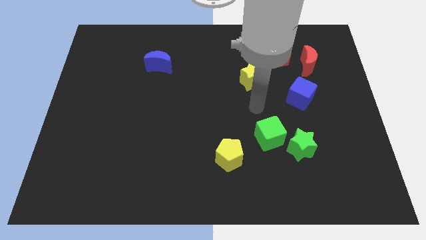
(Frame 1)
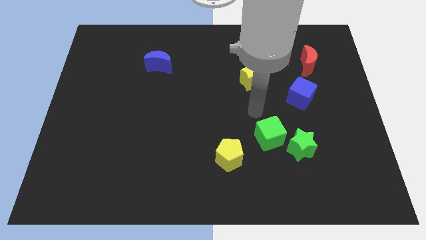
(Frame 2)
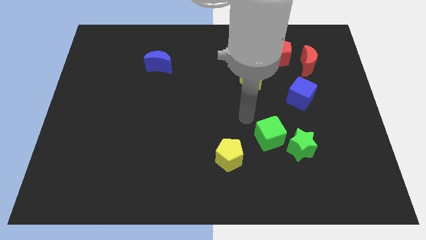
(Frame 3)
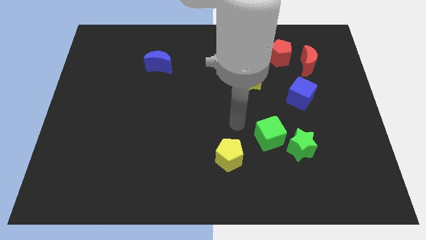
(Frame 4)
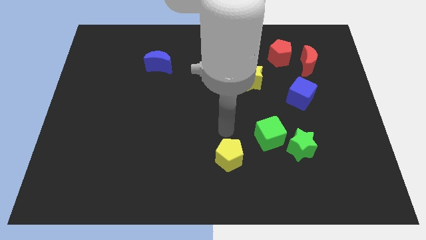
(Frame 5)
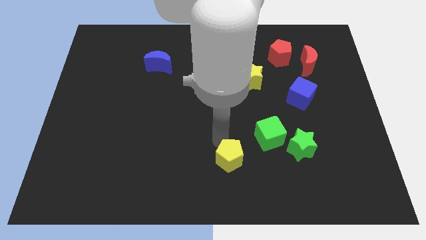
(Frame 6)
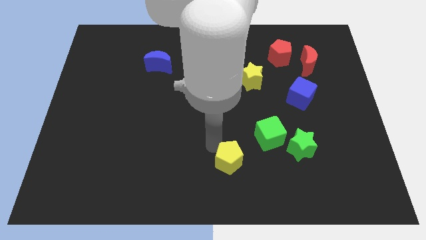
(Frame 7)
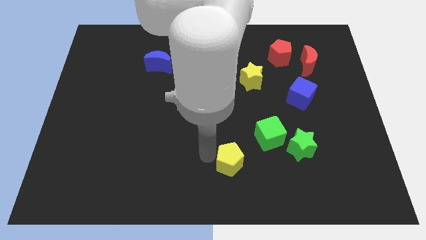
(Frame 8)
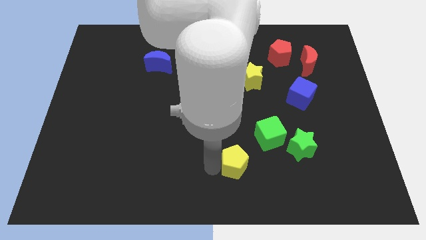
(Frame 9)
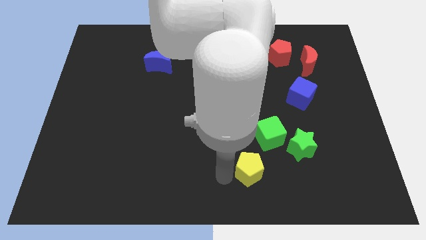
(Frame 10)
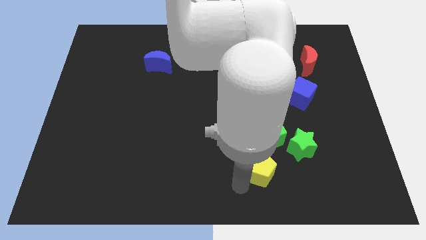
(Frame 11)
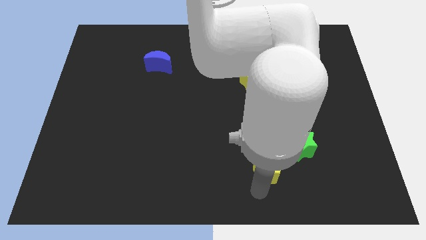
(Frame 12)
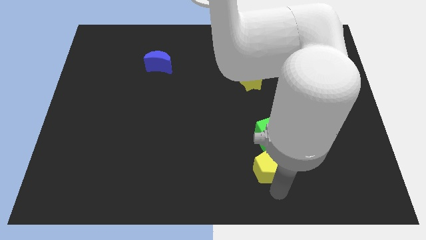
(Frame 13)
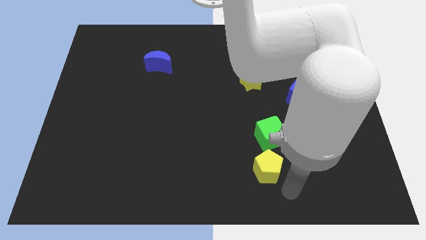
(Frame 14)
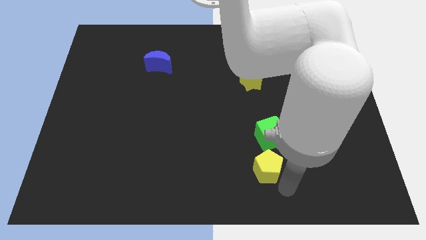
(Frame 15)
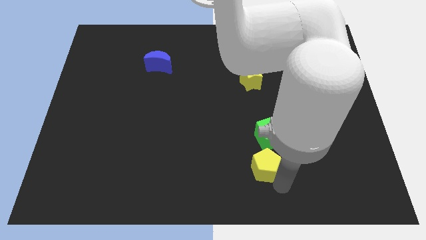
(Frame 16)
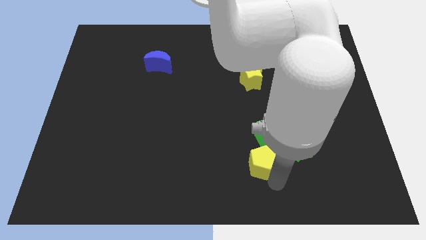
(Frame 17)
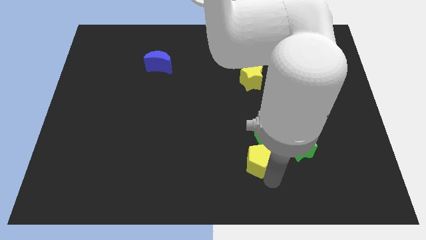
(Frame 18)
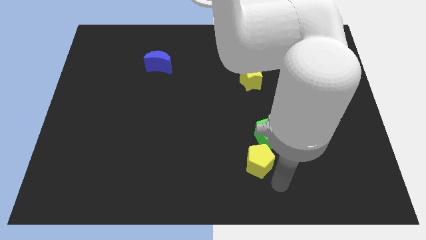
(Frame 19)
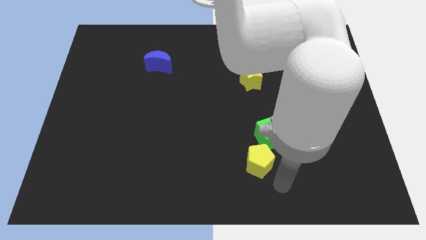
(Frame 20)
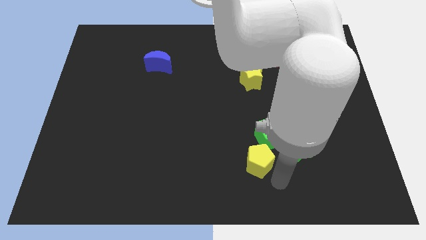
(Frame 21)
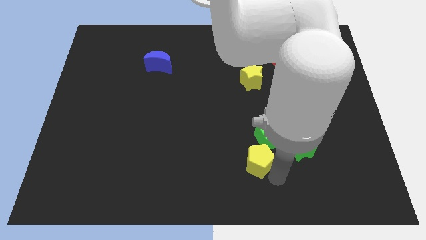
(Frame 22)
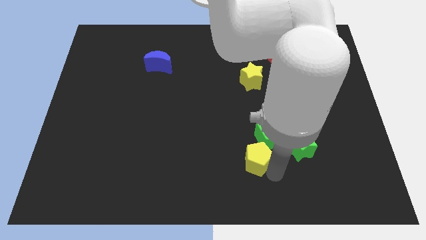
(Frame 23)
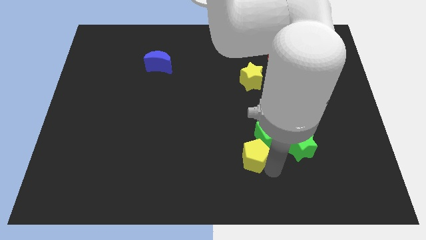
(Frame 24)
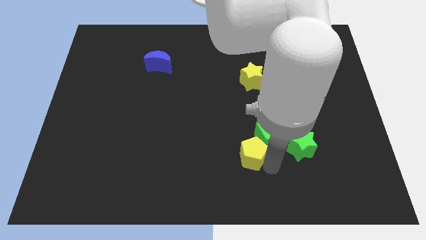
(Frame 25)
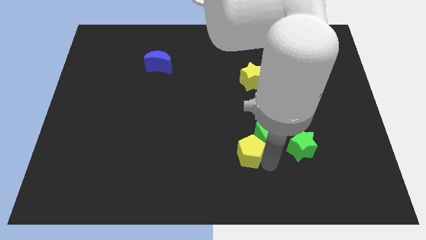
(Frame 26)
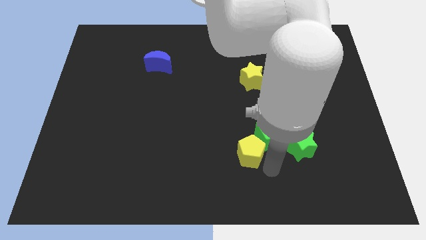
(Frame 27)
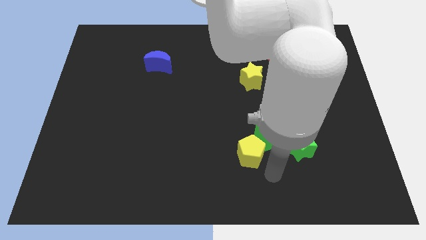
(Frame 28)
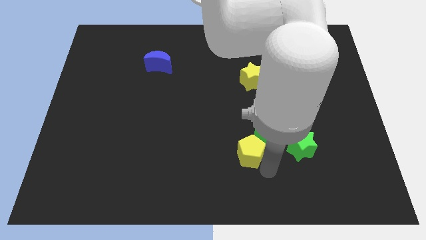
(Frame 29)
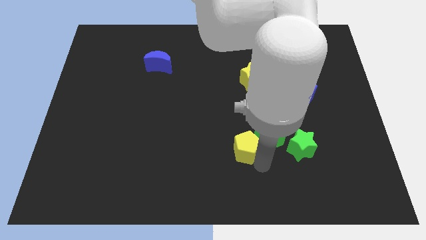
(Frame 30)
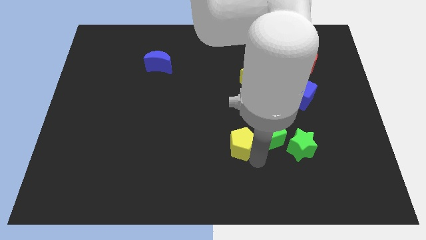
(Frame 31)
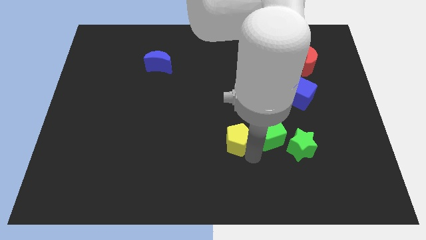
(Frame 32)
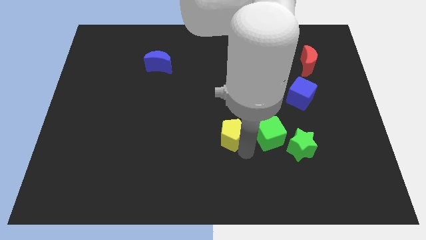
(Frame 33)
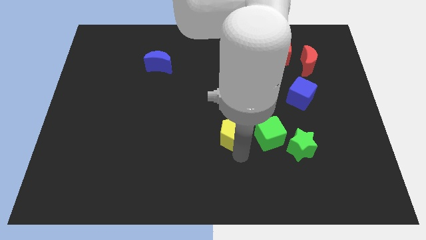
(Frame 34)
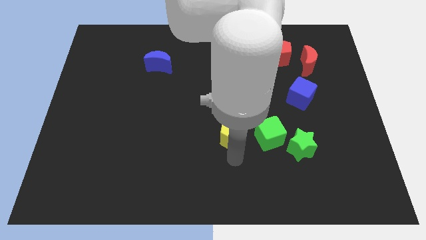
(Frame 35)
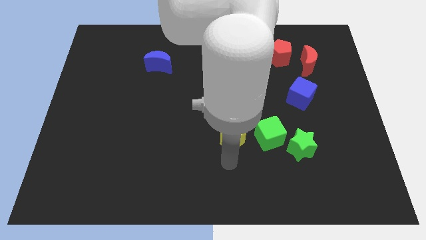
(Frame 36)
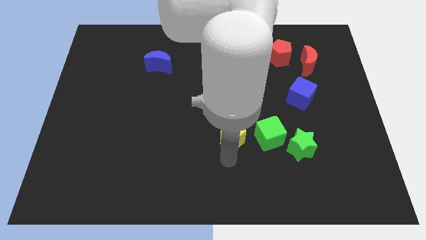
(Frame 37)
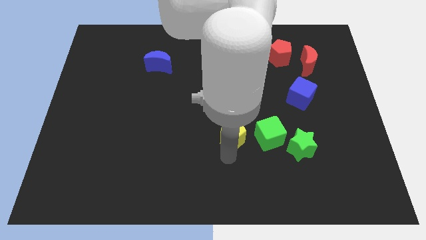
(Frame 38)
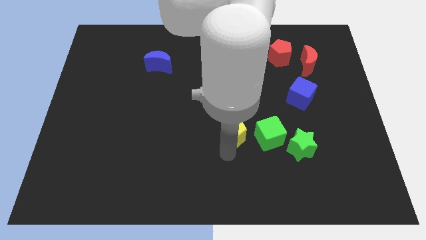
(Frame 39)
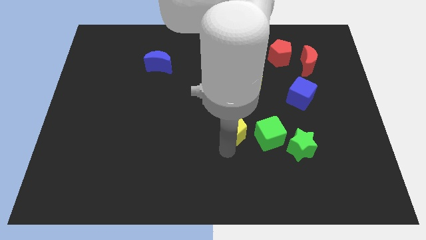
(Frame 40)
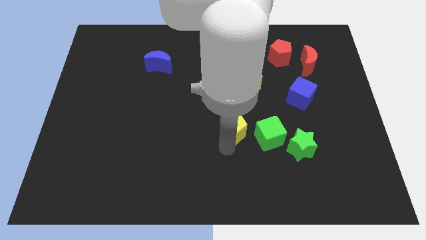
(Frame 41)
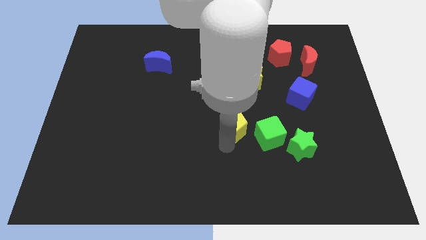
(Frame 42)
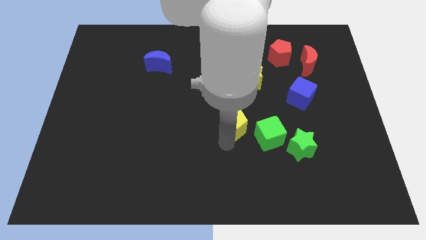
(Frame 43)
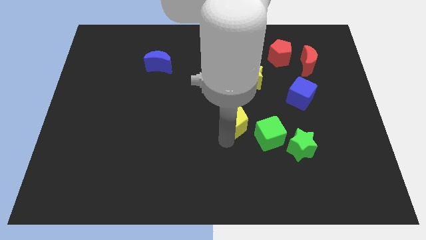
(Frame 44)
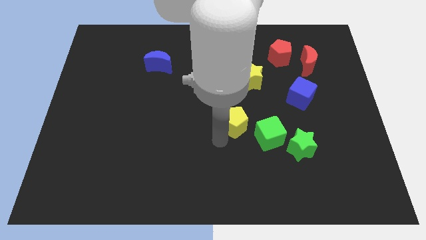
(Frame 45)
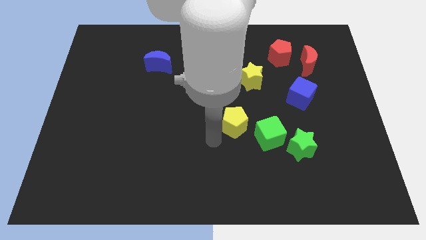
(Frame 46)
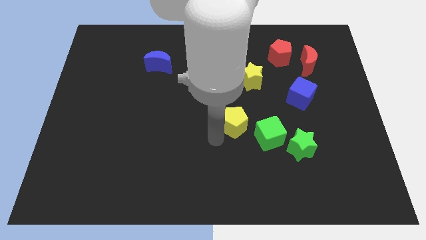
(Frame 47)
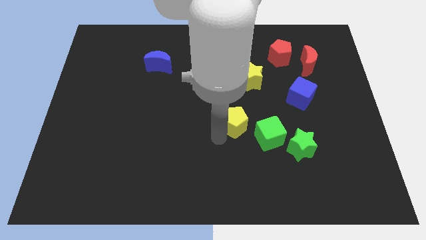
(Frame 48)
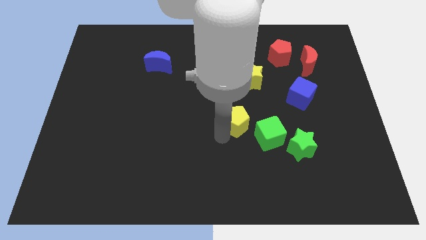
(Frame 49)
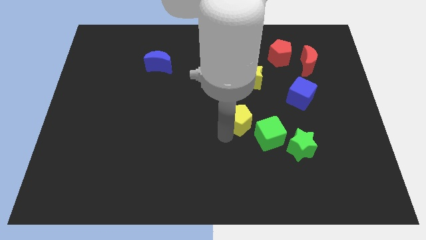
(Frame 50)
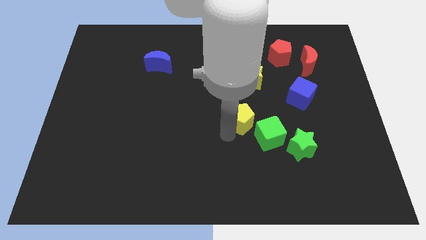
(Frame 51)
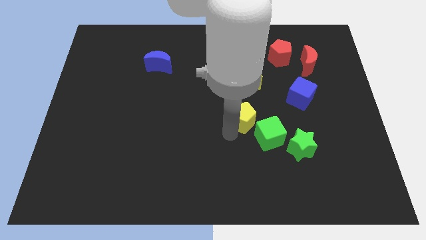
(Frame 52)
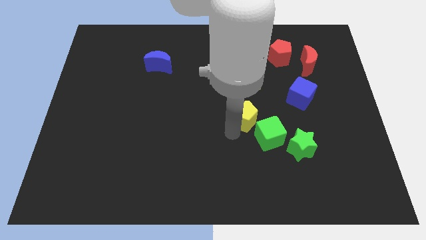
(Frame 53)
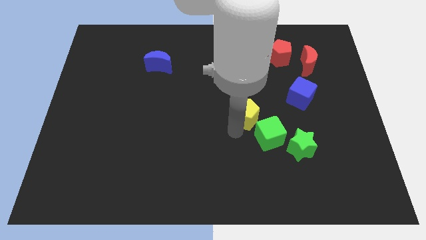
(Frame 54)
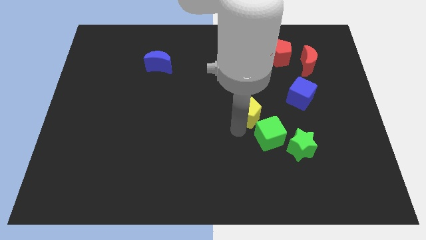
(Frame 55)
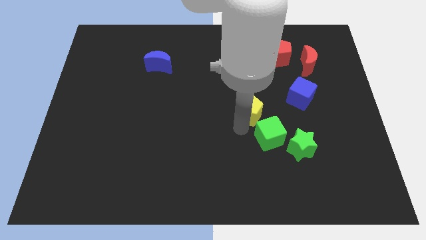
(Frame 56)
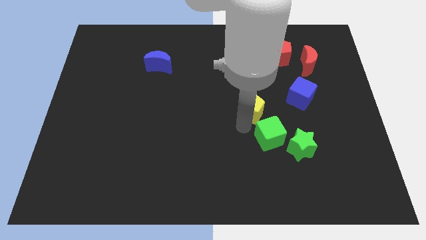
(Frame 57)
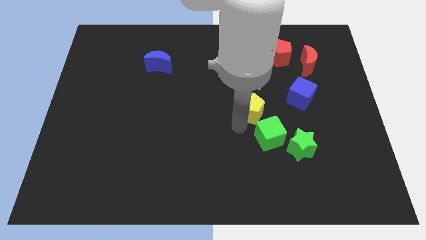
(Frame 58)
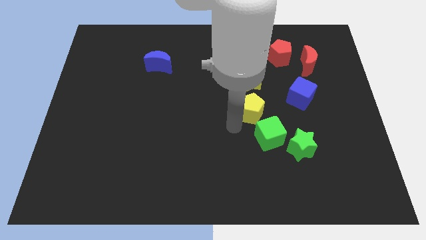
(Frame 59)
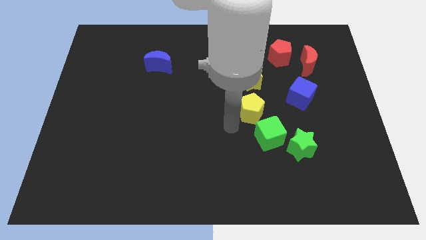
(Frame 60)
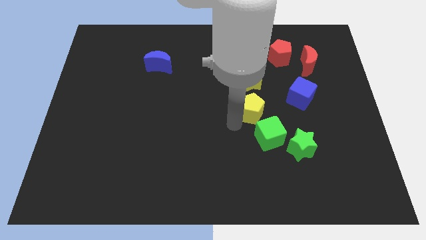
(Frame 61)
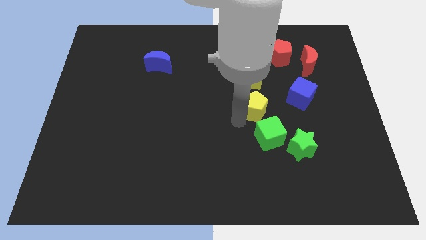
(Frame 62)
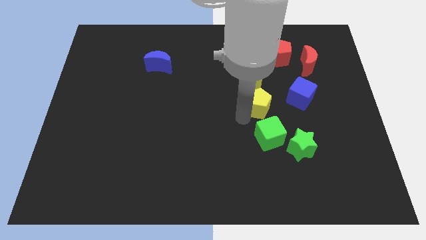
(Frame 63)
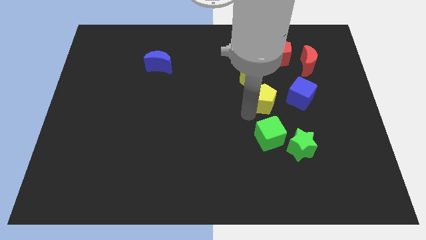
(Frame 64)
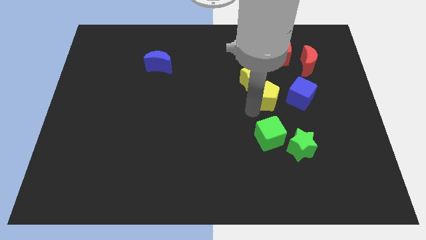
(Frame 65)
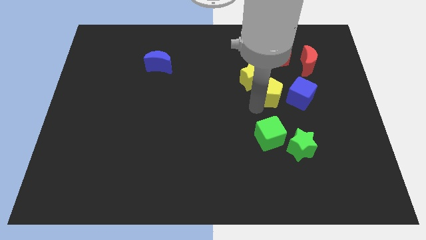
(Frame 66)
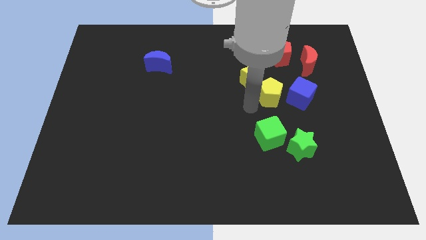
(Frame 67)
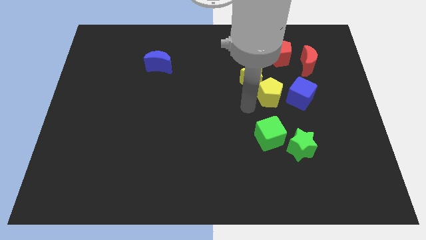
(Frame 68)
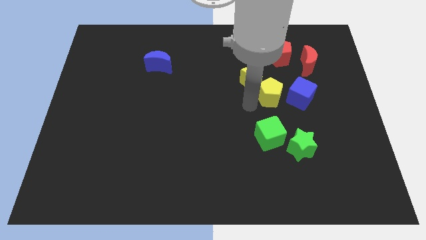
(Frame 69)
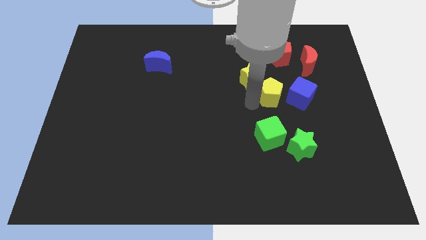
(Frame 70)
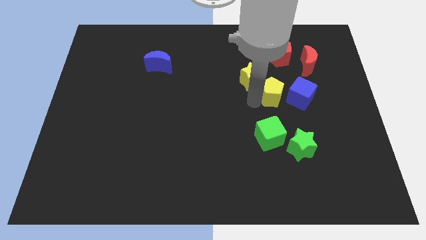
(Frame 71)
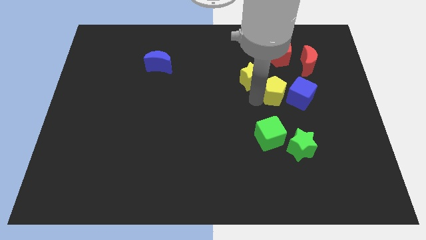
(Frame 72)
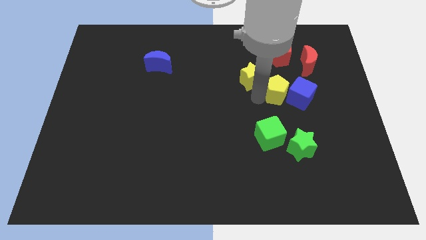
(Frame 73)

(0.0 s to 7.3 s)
move the yellow pentagon upwards and then right

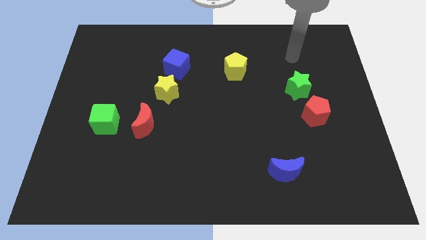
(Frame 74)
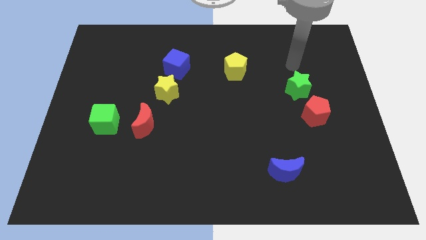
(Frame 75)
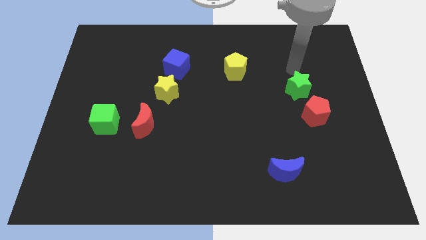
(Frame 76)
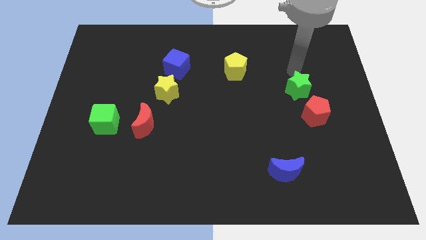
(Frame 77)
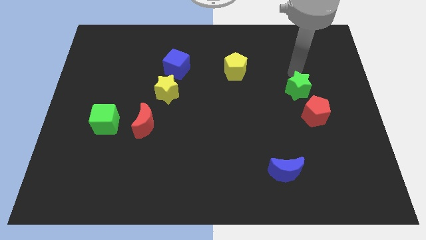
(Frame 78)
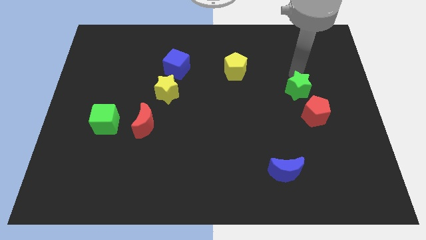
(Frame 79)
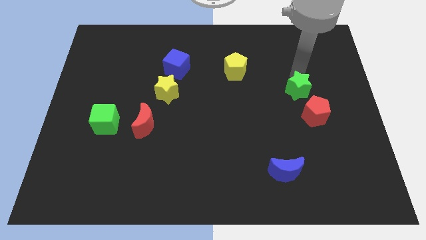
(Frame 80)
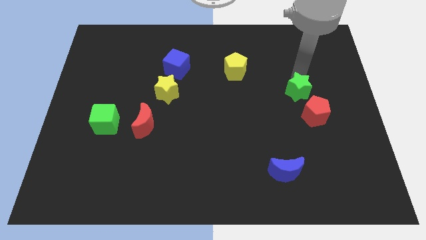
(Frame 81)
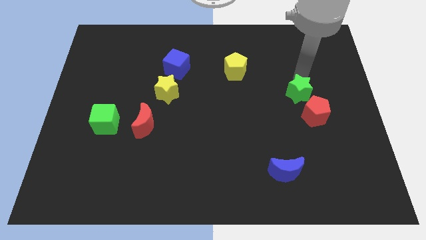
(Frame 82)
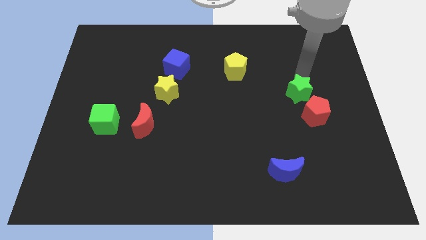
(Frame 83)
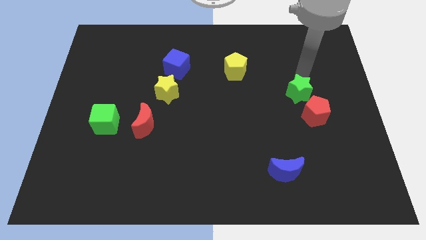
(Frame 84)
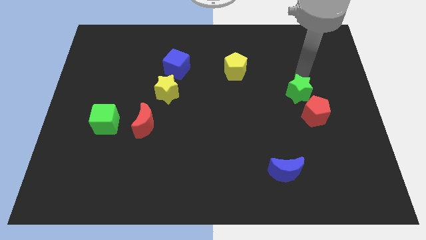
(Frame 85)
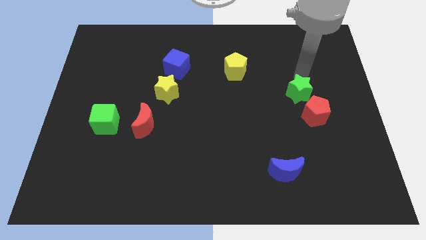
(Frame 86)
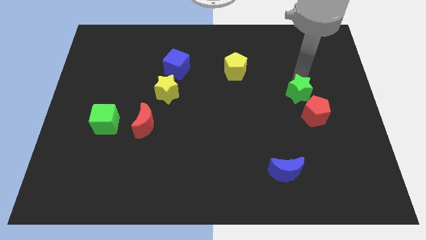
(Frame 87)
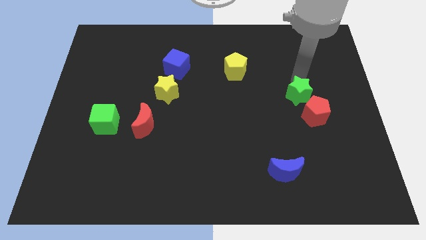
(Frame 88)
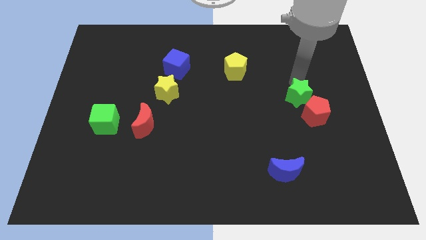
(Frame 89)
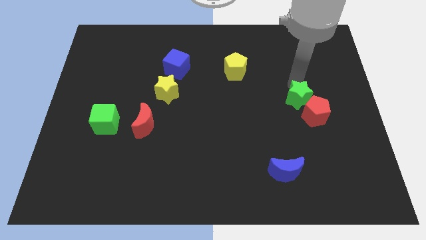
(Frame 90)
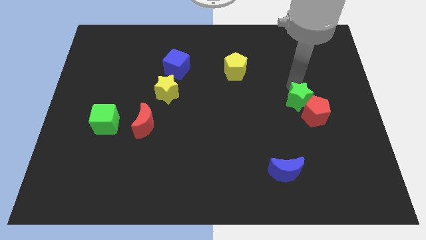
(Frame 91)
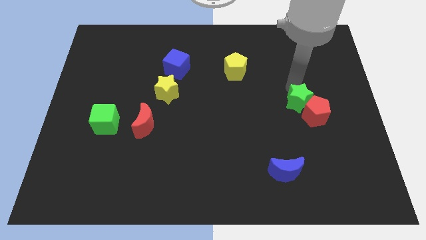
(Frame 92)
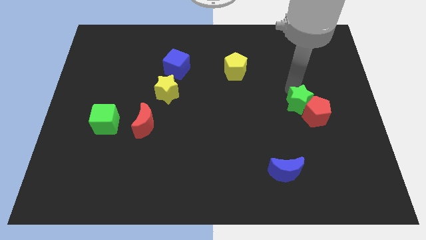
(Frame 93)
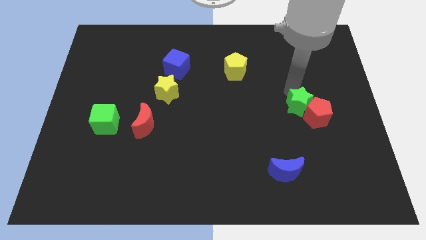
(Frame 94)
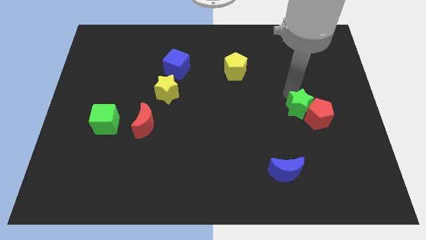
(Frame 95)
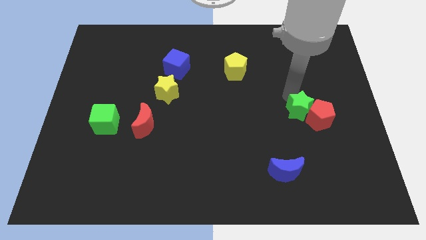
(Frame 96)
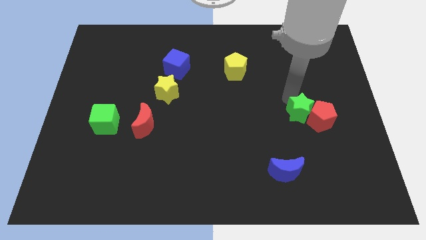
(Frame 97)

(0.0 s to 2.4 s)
slightly slide the green star downwards
